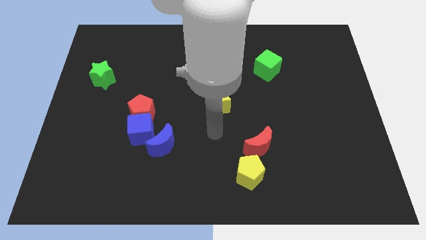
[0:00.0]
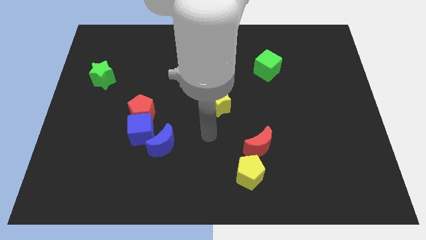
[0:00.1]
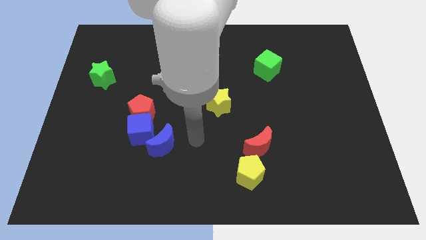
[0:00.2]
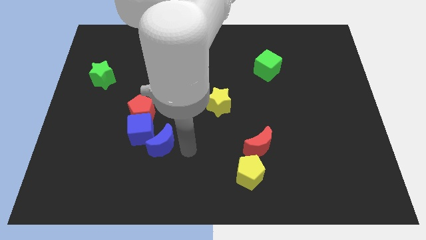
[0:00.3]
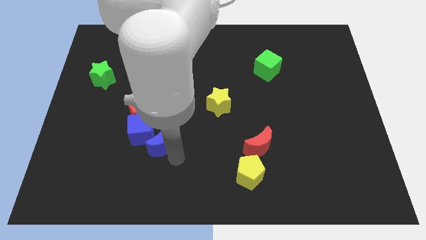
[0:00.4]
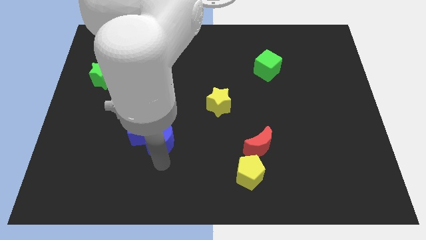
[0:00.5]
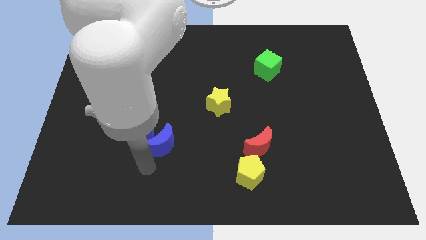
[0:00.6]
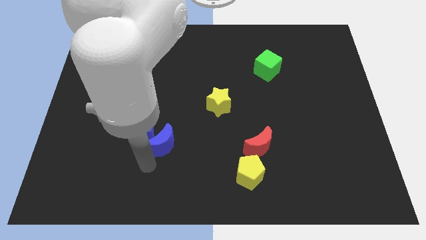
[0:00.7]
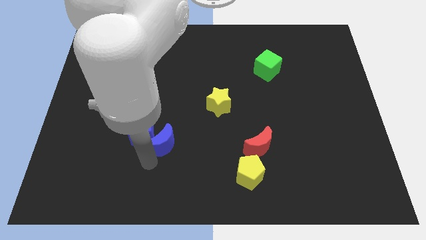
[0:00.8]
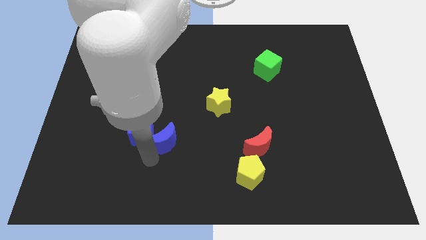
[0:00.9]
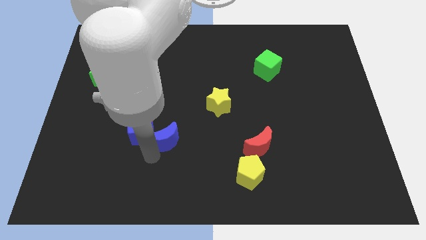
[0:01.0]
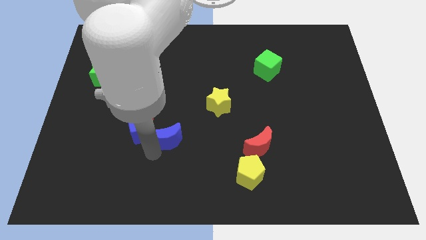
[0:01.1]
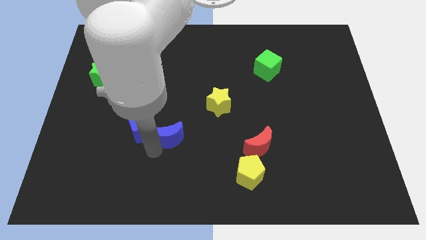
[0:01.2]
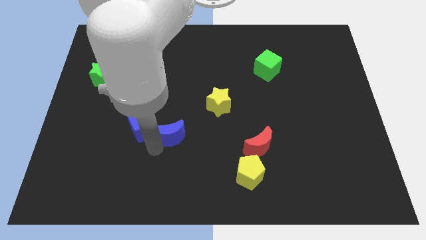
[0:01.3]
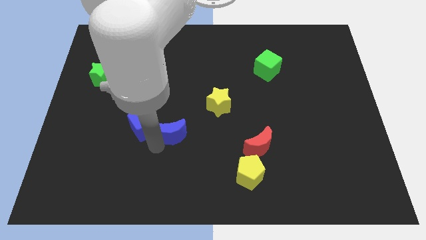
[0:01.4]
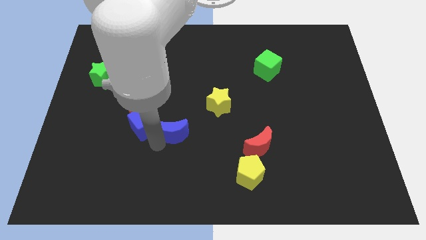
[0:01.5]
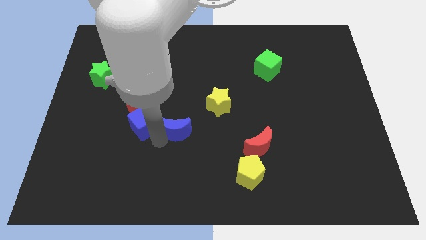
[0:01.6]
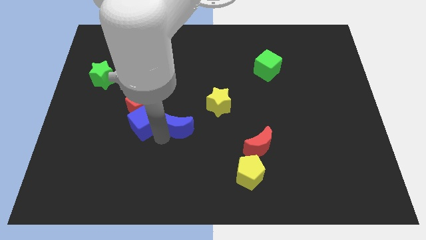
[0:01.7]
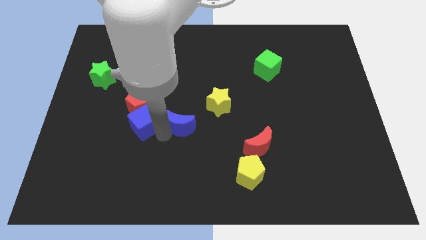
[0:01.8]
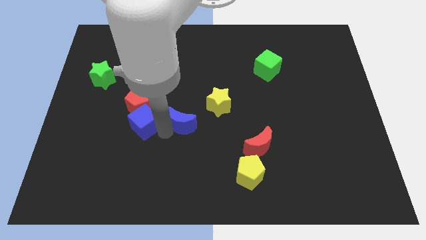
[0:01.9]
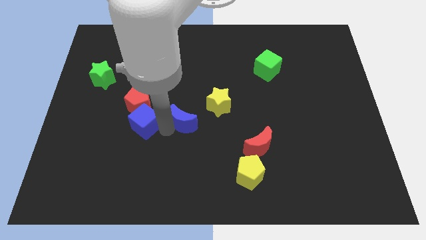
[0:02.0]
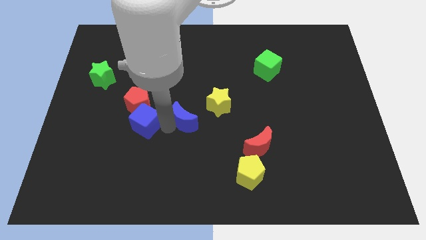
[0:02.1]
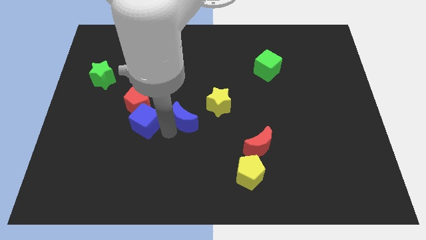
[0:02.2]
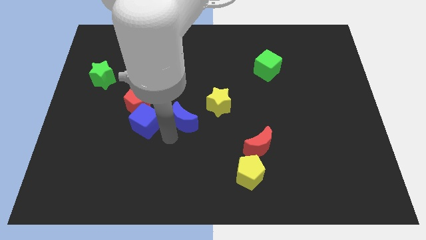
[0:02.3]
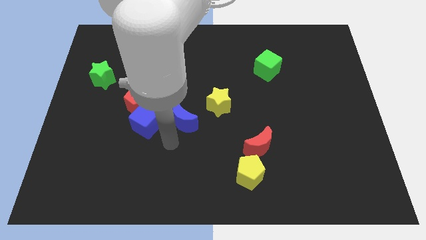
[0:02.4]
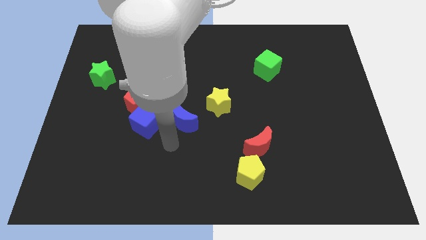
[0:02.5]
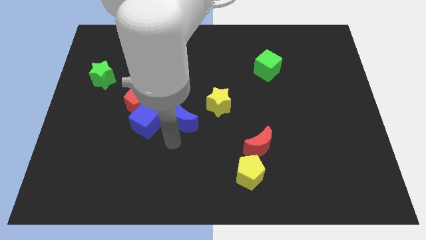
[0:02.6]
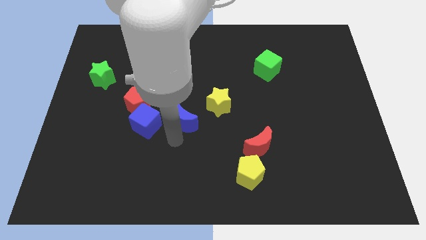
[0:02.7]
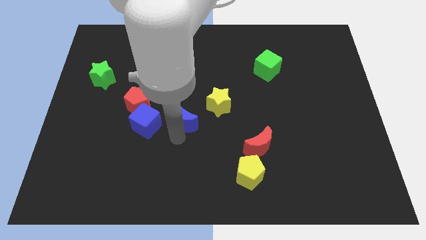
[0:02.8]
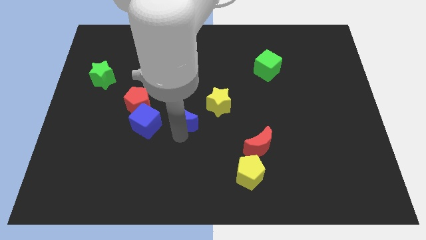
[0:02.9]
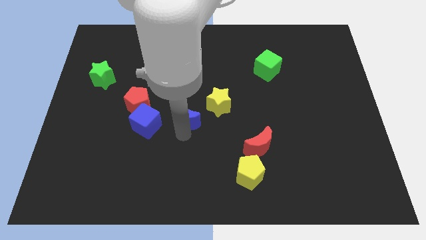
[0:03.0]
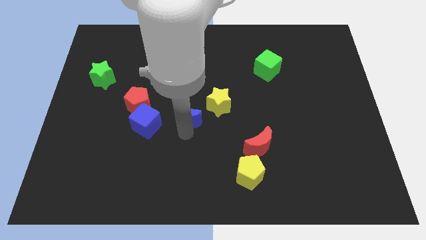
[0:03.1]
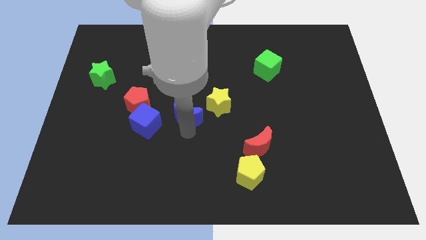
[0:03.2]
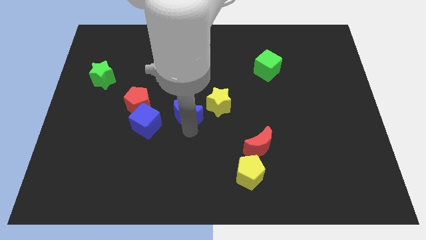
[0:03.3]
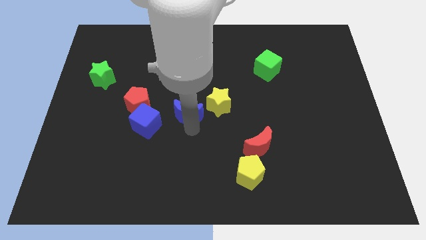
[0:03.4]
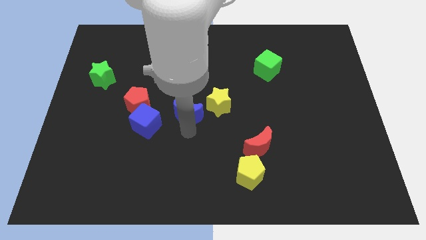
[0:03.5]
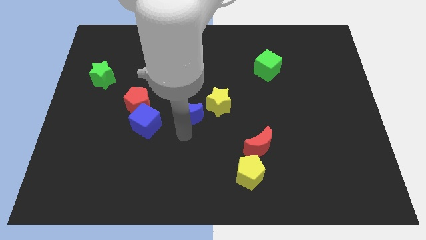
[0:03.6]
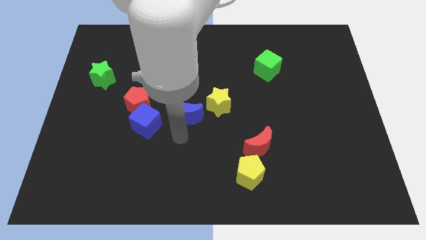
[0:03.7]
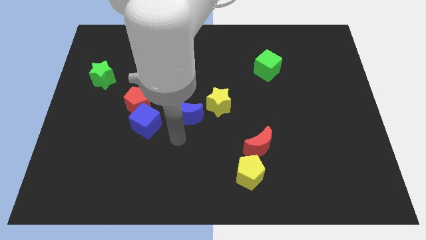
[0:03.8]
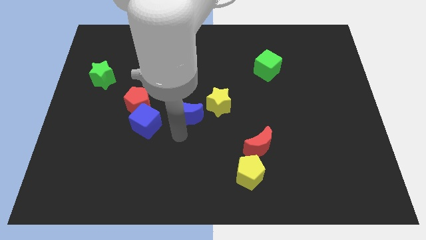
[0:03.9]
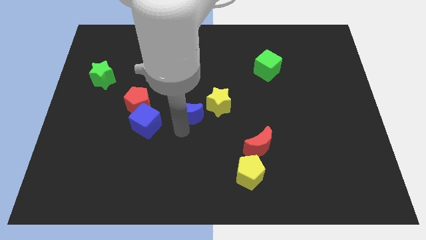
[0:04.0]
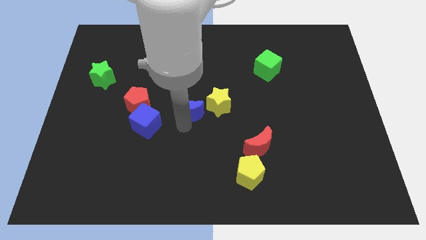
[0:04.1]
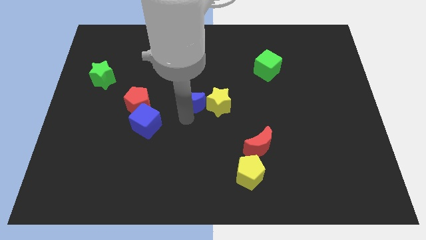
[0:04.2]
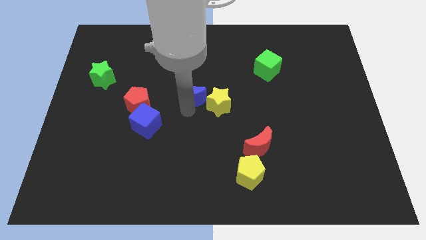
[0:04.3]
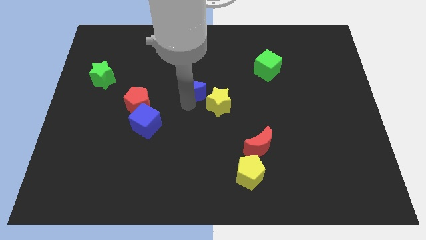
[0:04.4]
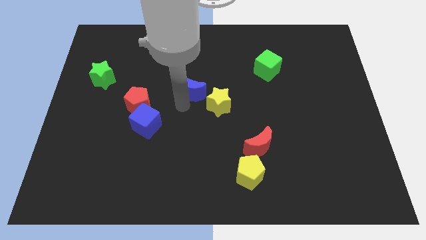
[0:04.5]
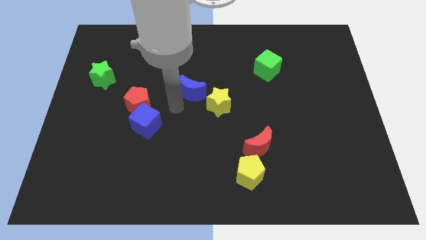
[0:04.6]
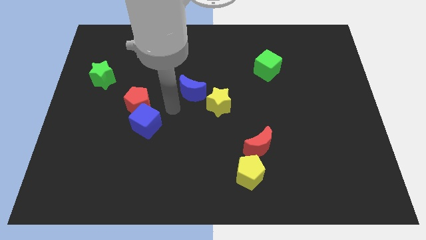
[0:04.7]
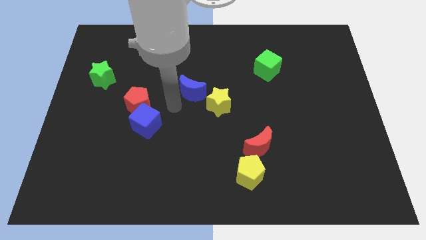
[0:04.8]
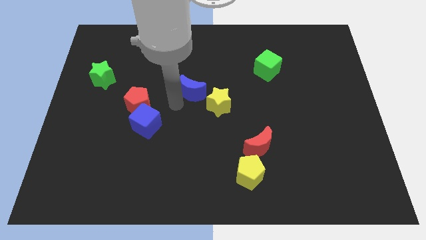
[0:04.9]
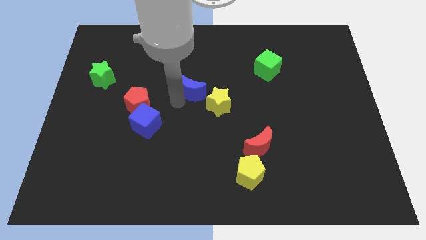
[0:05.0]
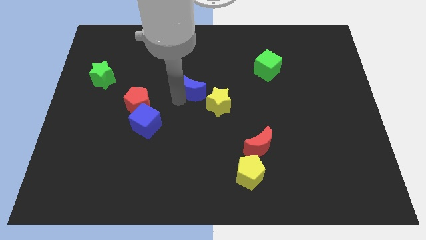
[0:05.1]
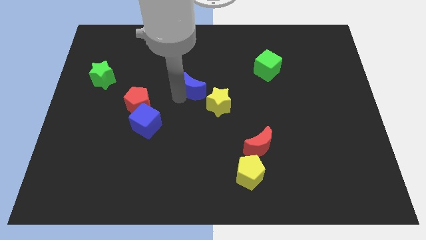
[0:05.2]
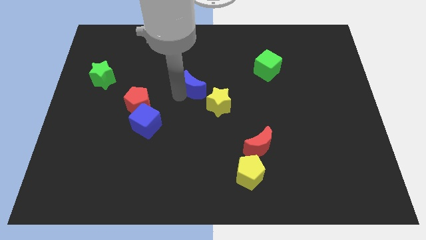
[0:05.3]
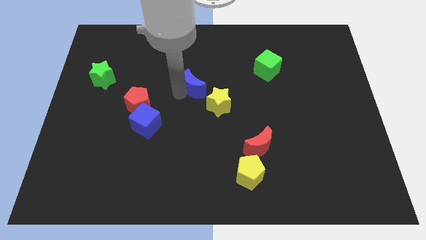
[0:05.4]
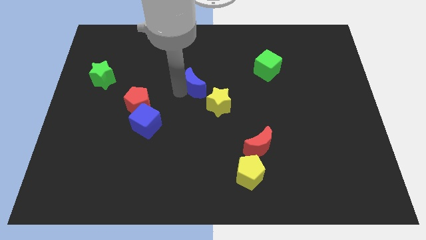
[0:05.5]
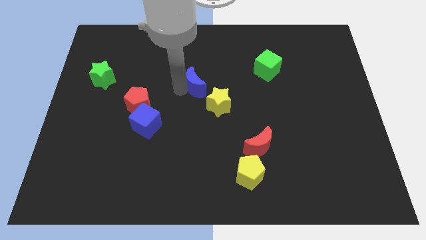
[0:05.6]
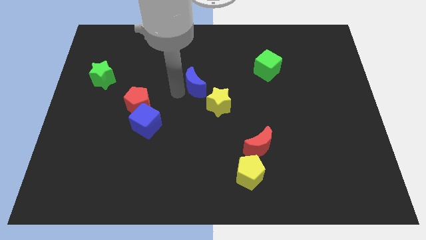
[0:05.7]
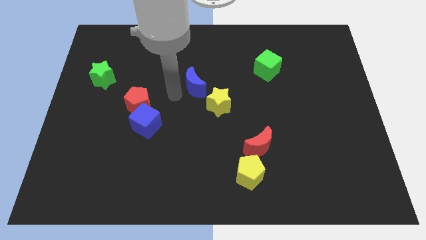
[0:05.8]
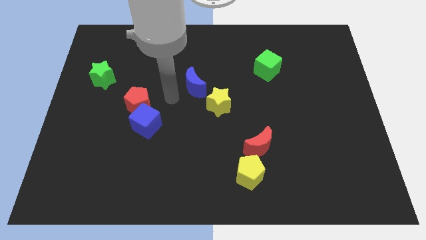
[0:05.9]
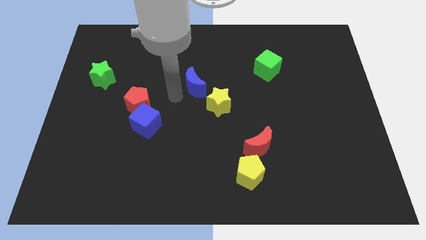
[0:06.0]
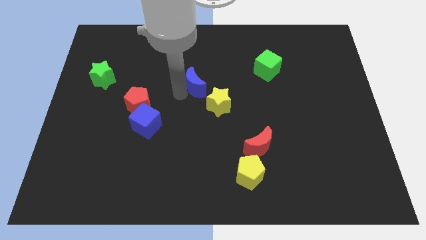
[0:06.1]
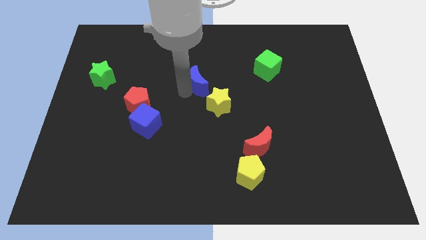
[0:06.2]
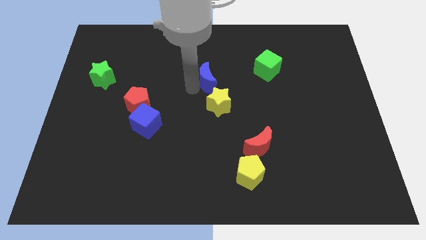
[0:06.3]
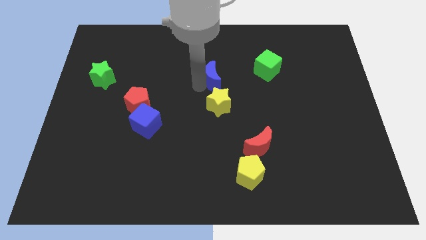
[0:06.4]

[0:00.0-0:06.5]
put the blue moon to the left of the green cube

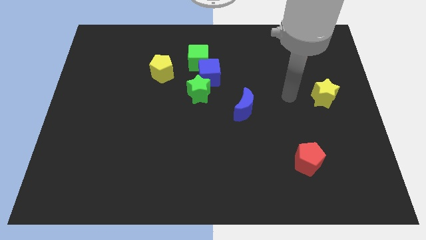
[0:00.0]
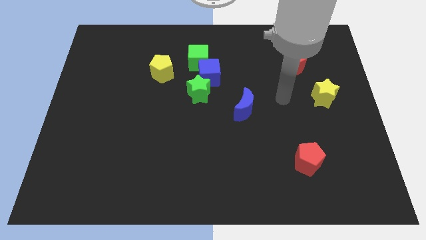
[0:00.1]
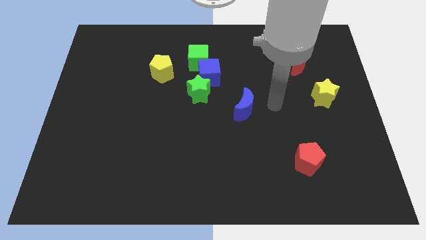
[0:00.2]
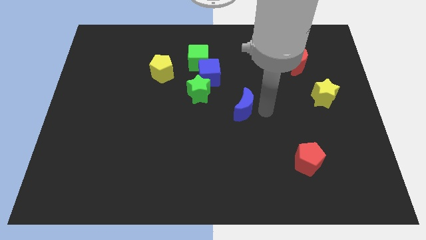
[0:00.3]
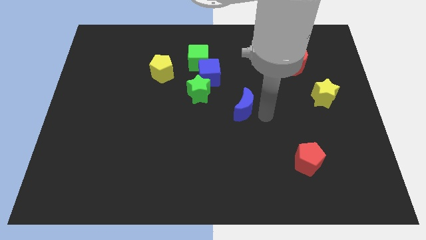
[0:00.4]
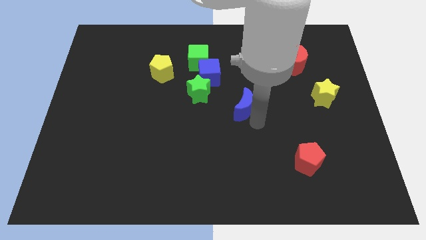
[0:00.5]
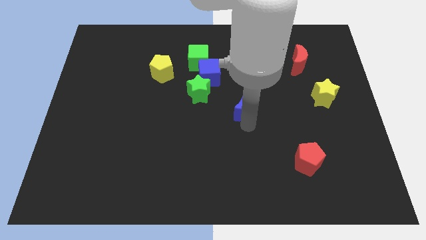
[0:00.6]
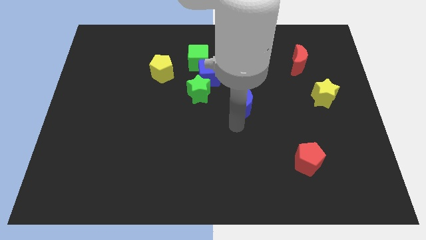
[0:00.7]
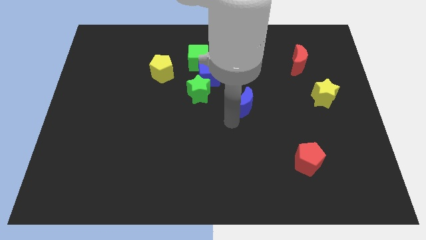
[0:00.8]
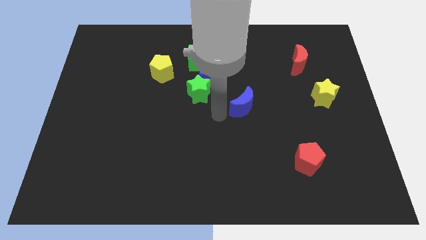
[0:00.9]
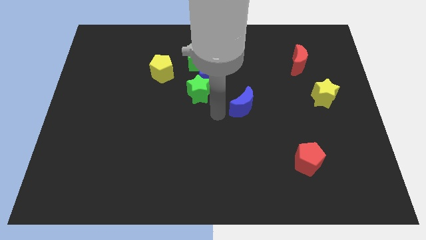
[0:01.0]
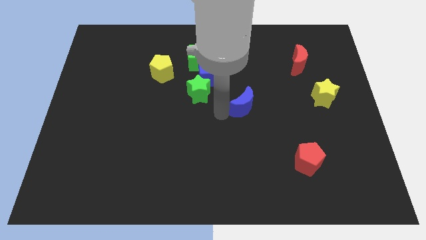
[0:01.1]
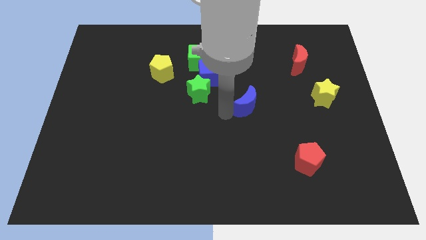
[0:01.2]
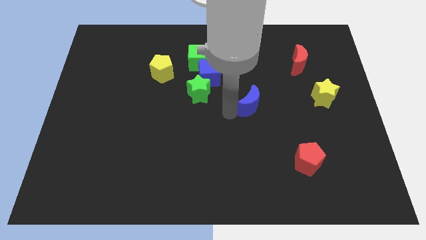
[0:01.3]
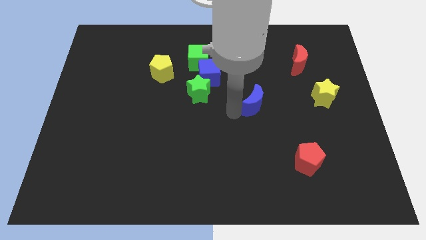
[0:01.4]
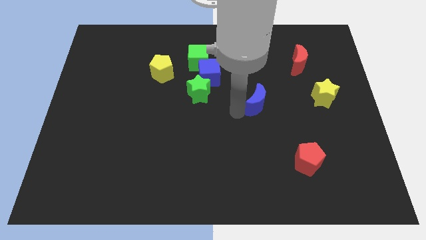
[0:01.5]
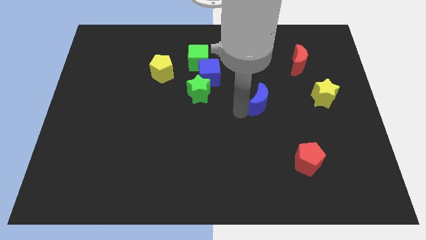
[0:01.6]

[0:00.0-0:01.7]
move the blue moon to the left side of the yellow star
